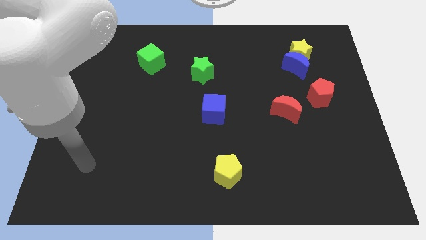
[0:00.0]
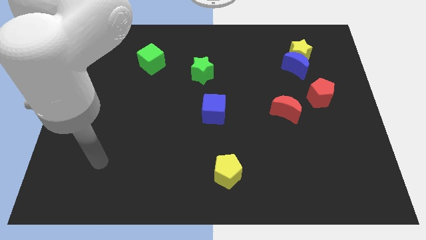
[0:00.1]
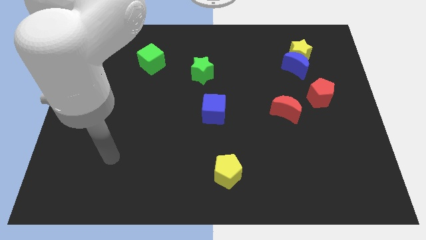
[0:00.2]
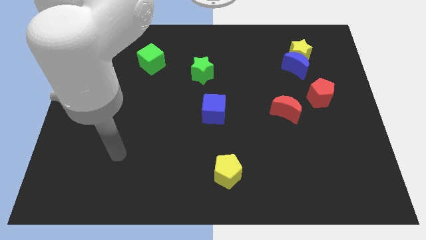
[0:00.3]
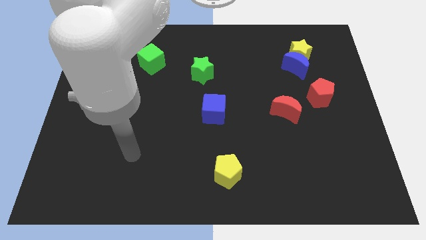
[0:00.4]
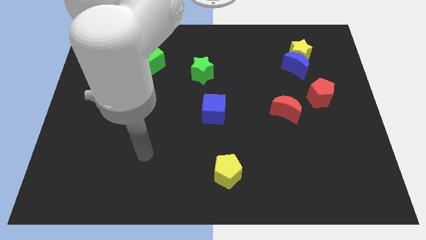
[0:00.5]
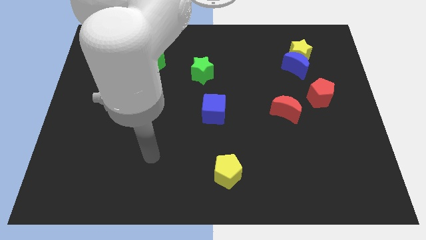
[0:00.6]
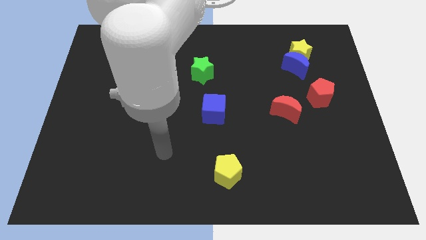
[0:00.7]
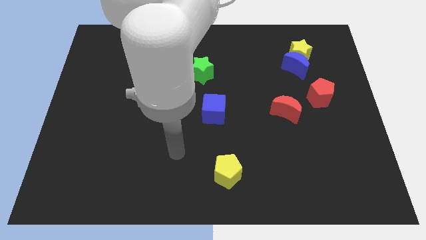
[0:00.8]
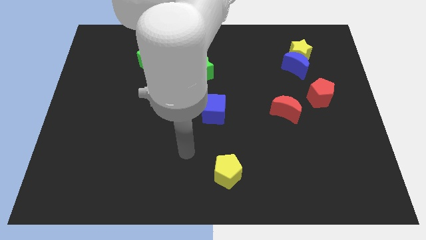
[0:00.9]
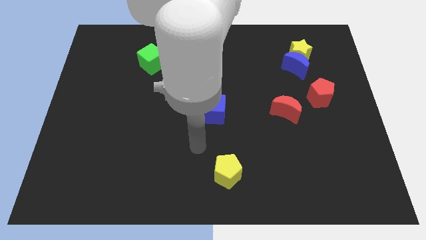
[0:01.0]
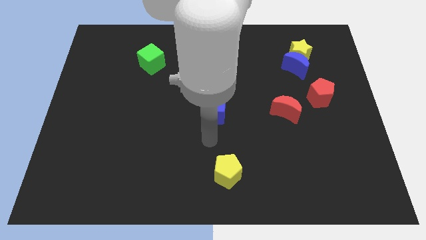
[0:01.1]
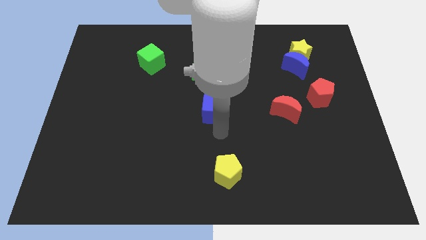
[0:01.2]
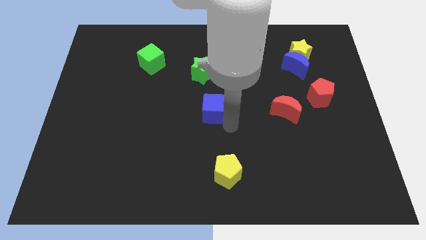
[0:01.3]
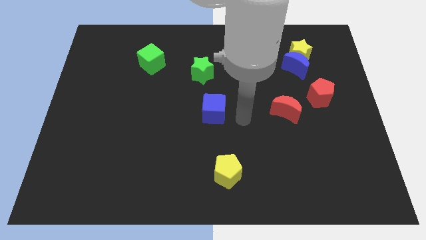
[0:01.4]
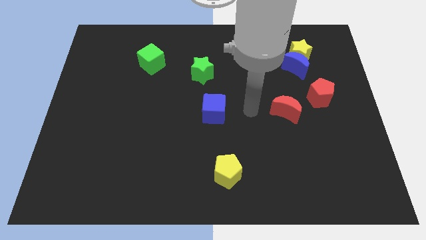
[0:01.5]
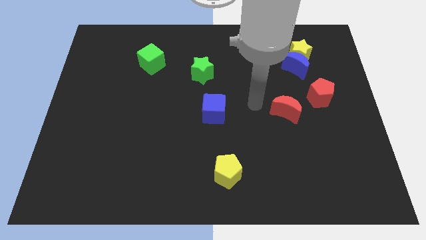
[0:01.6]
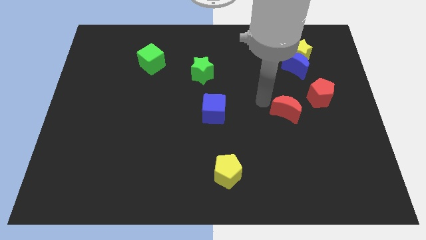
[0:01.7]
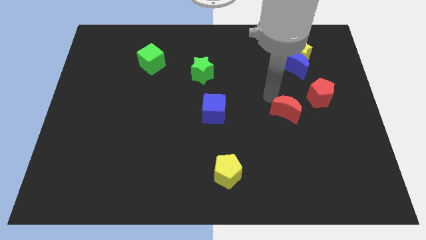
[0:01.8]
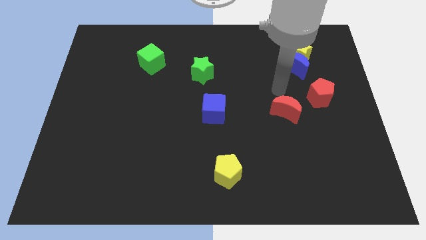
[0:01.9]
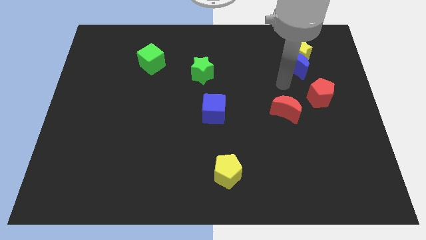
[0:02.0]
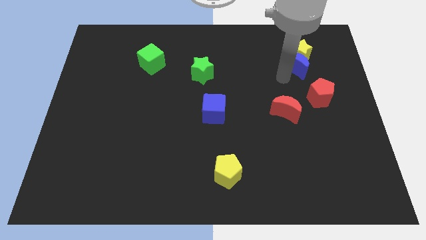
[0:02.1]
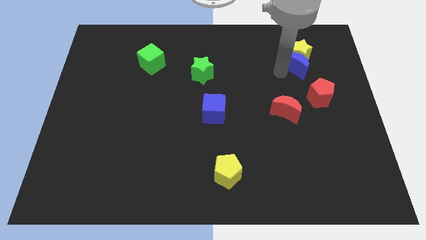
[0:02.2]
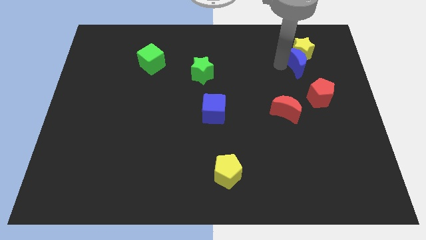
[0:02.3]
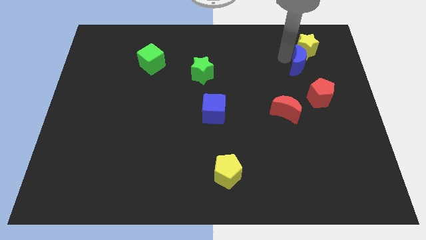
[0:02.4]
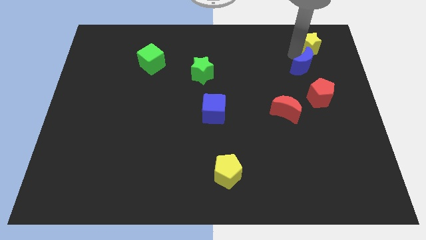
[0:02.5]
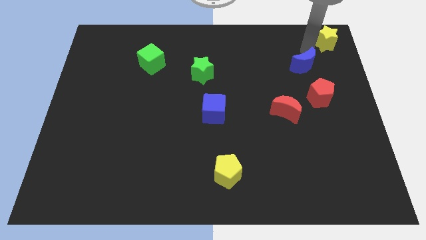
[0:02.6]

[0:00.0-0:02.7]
move the blue moon away from the yellow star

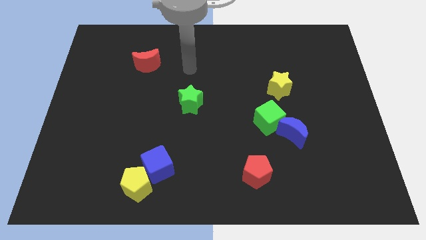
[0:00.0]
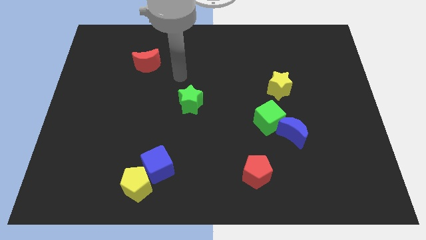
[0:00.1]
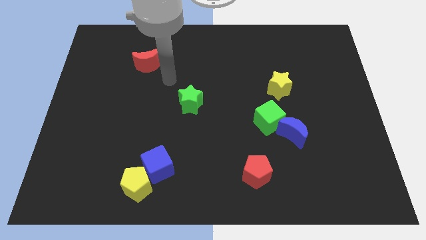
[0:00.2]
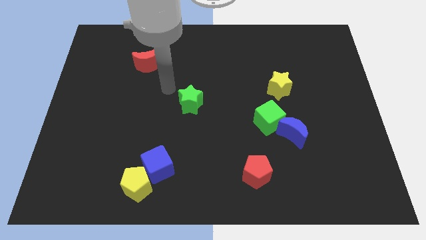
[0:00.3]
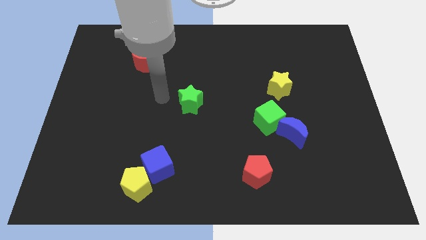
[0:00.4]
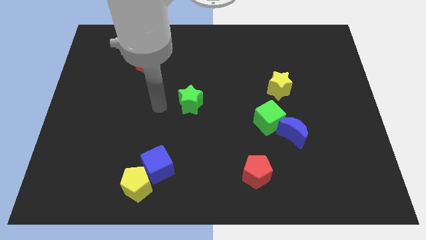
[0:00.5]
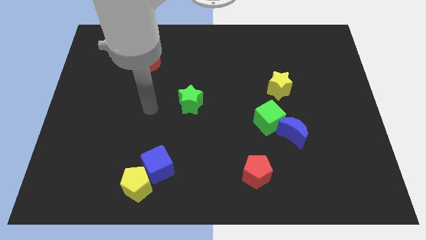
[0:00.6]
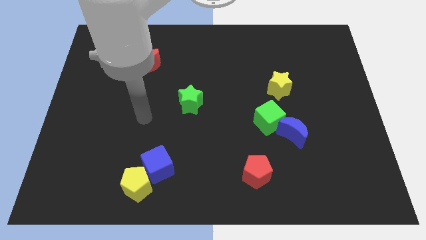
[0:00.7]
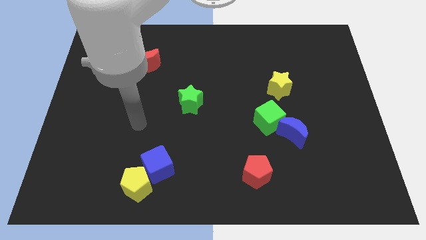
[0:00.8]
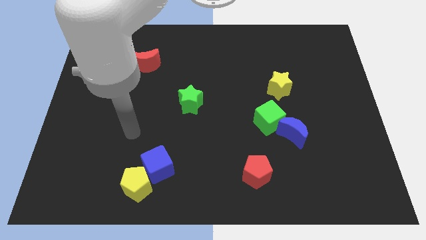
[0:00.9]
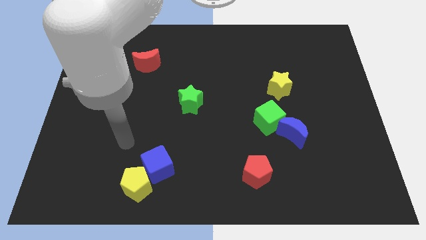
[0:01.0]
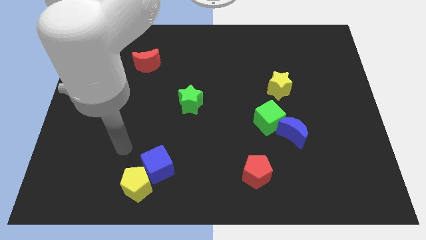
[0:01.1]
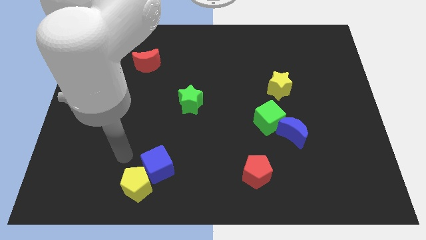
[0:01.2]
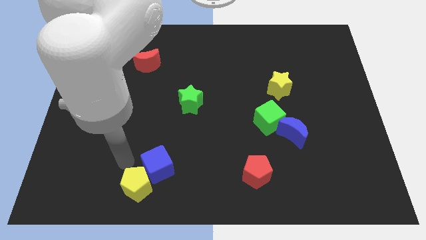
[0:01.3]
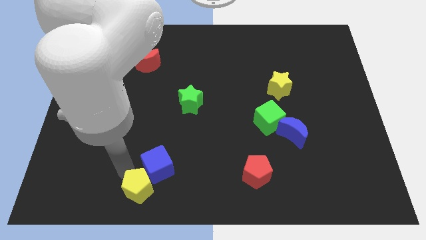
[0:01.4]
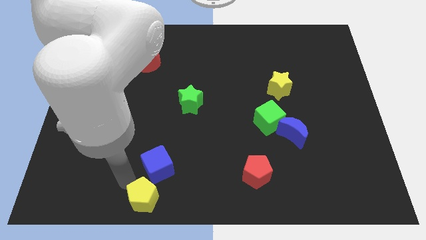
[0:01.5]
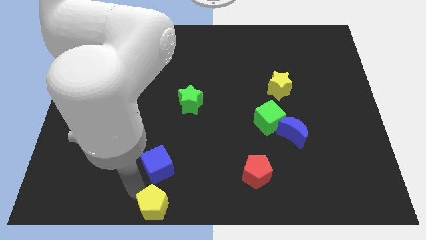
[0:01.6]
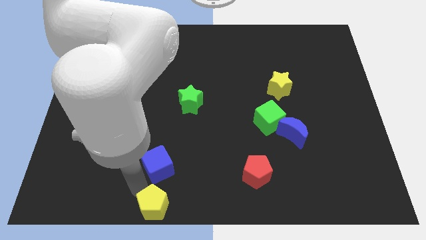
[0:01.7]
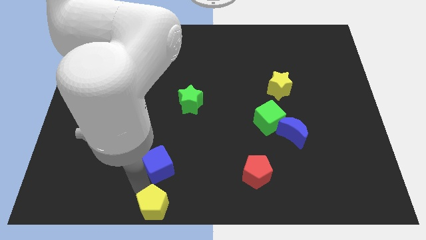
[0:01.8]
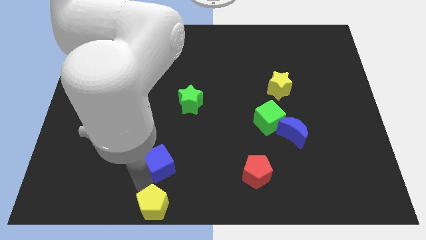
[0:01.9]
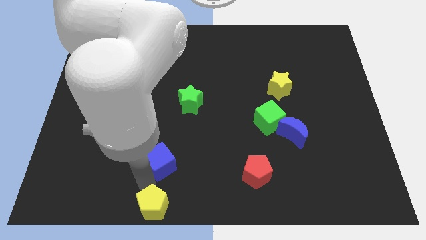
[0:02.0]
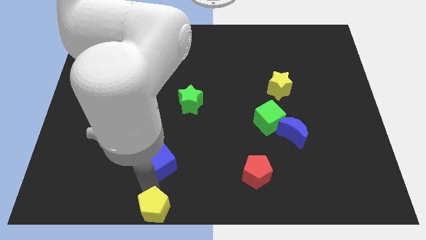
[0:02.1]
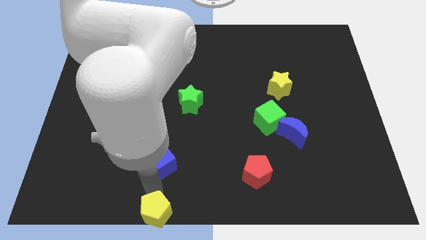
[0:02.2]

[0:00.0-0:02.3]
pull the blue cube apart from the yellow pentagon

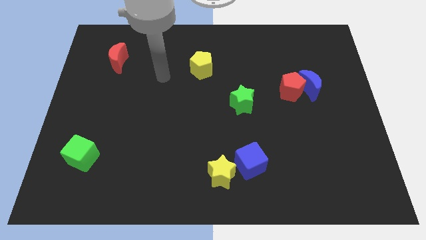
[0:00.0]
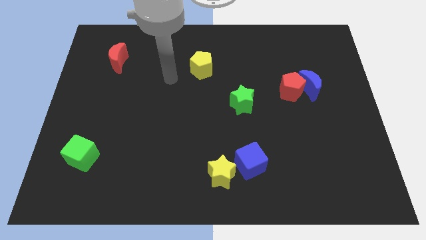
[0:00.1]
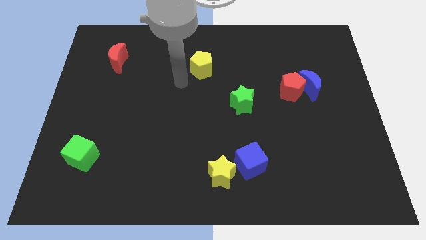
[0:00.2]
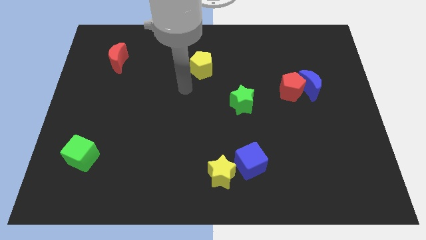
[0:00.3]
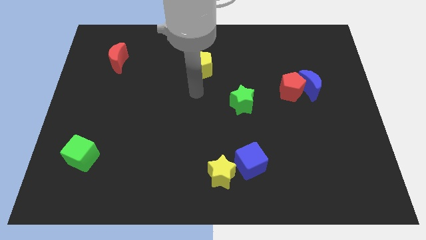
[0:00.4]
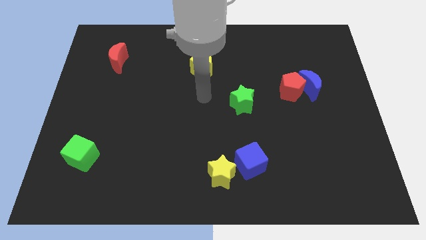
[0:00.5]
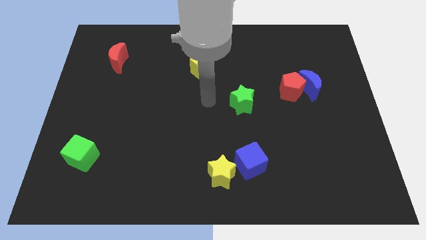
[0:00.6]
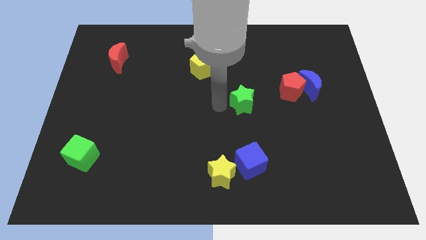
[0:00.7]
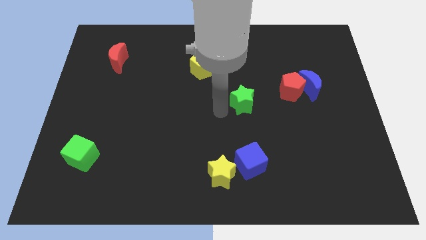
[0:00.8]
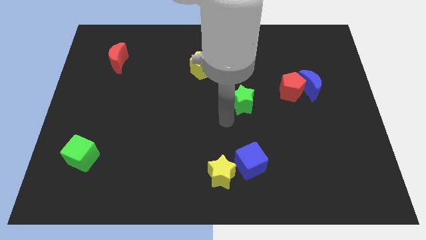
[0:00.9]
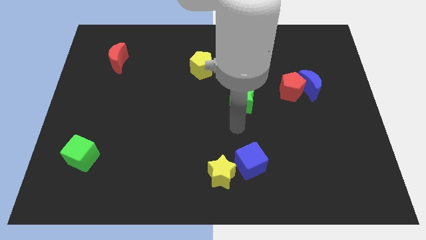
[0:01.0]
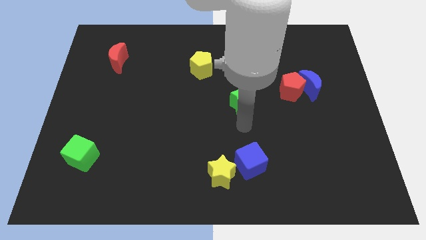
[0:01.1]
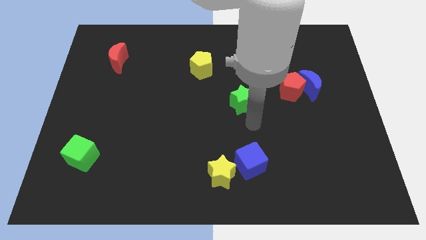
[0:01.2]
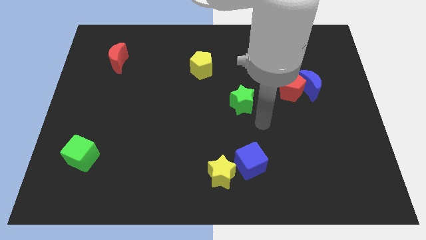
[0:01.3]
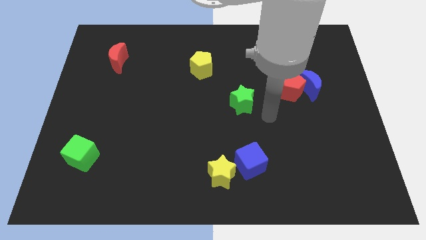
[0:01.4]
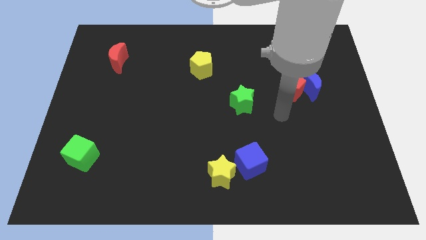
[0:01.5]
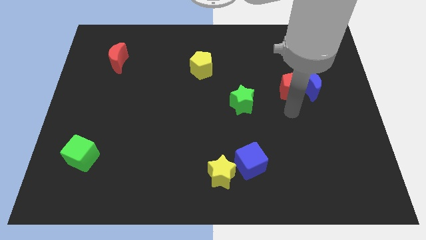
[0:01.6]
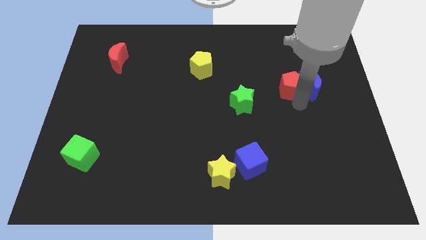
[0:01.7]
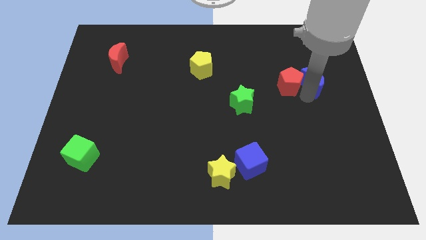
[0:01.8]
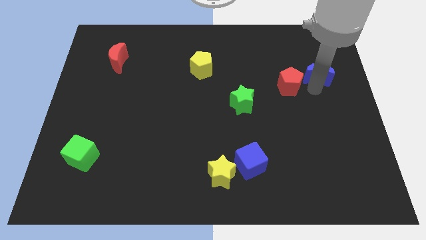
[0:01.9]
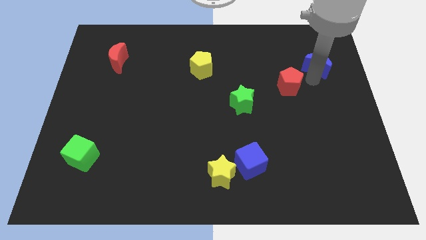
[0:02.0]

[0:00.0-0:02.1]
pull the red pentagon apart from the blue moon

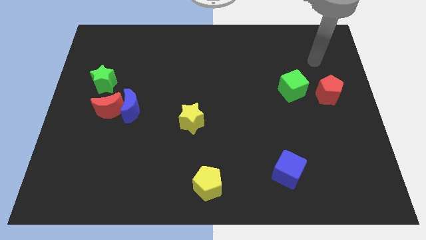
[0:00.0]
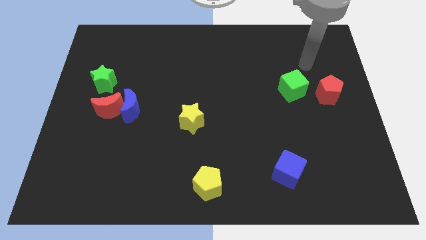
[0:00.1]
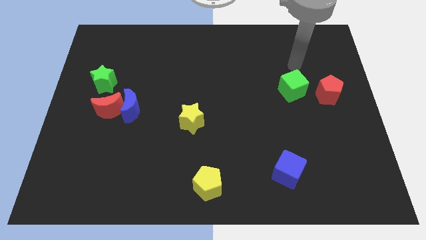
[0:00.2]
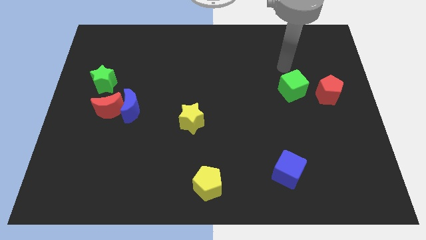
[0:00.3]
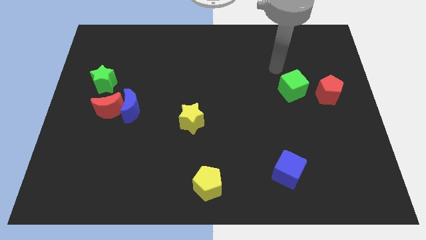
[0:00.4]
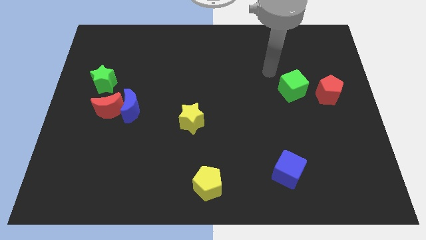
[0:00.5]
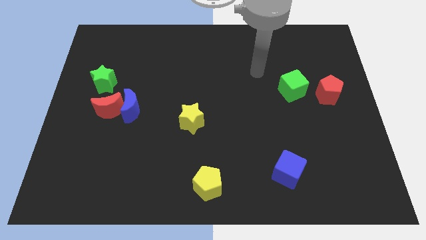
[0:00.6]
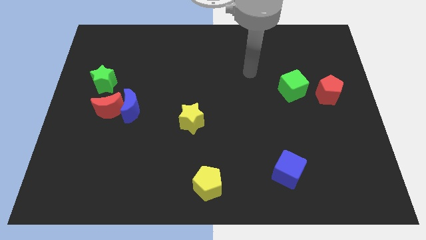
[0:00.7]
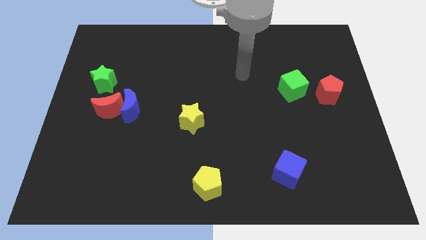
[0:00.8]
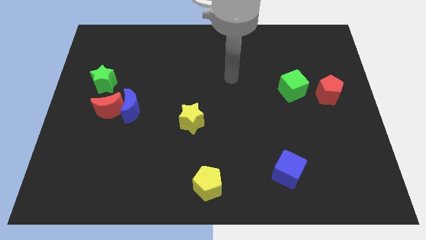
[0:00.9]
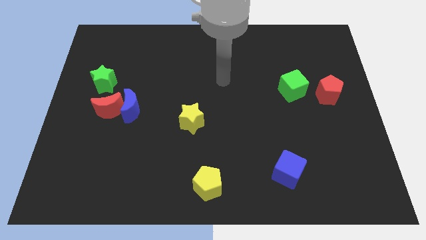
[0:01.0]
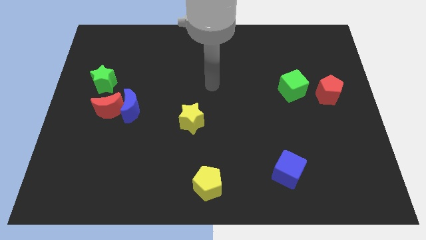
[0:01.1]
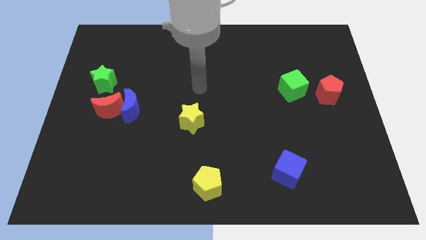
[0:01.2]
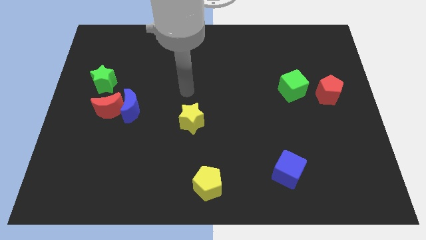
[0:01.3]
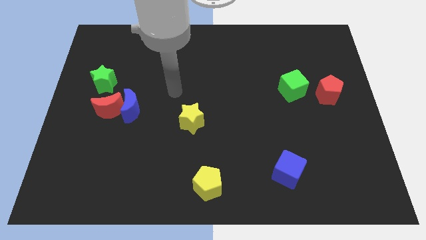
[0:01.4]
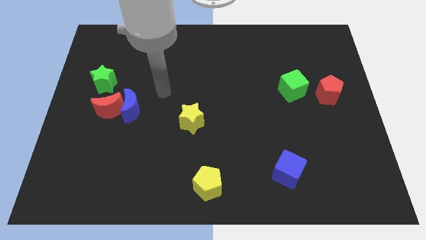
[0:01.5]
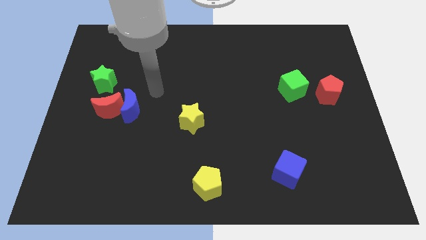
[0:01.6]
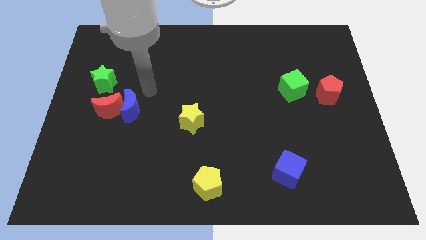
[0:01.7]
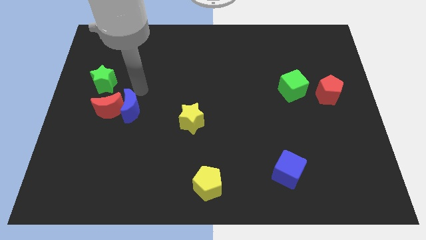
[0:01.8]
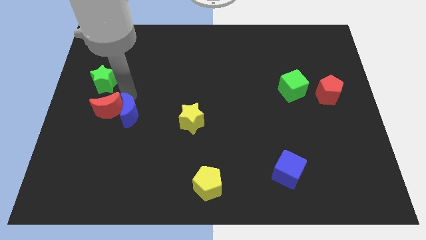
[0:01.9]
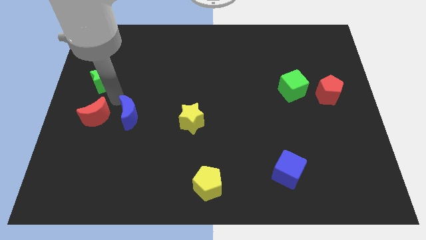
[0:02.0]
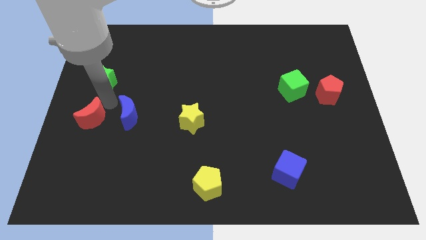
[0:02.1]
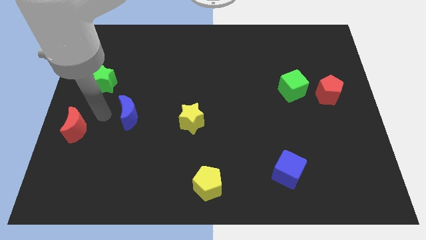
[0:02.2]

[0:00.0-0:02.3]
move the blue moon away from the red moon
